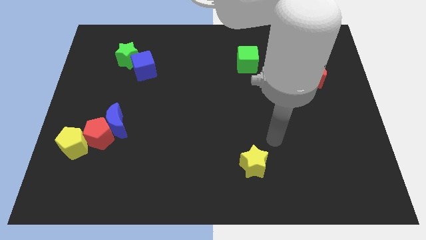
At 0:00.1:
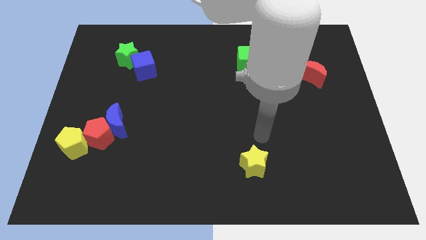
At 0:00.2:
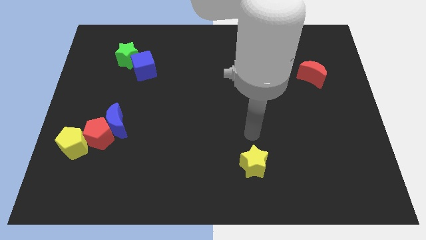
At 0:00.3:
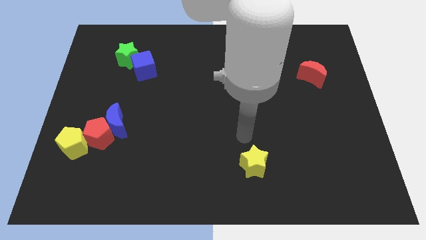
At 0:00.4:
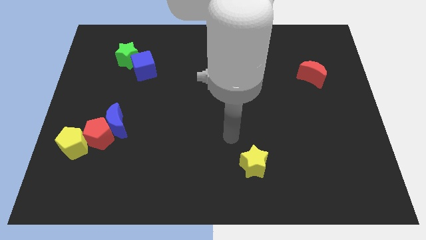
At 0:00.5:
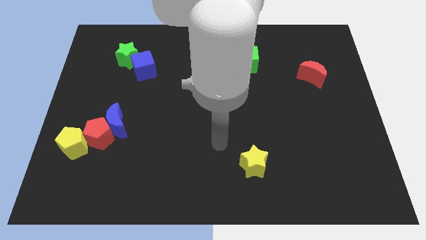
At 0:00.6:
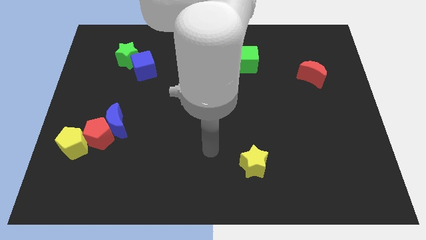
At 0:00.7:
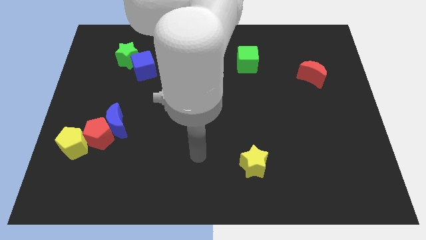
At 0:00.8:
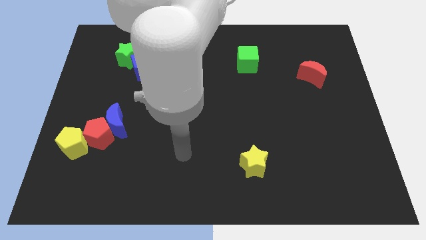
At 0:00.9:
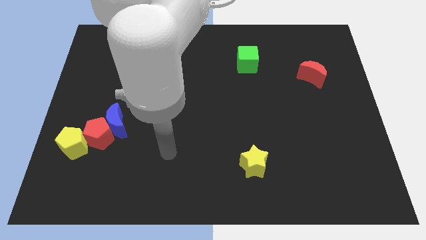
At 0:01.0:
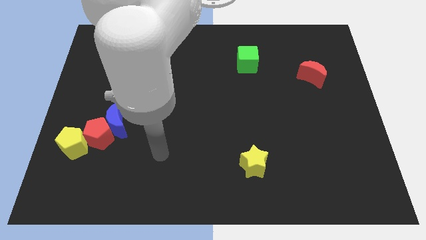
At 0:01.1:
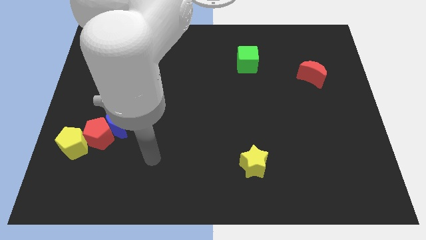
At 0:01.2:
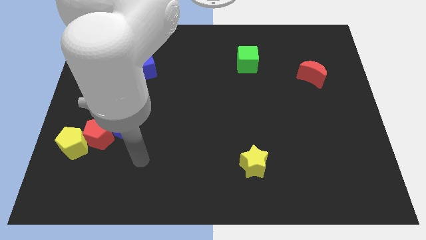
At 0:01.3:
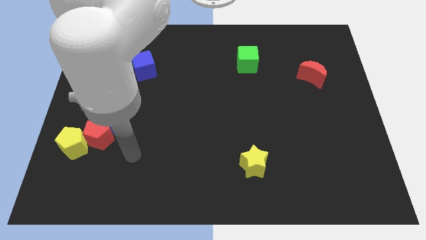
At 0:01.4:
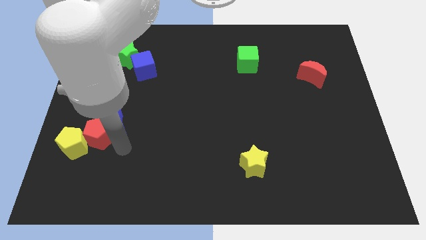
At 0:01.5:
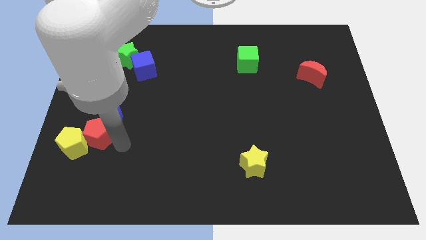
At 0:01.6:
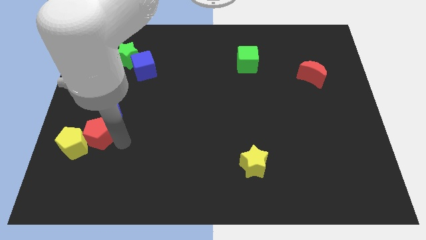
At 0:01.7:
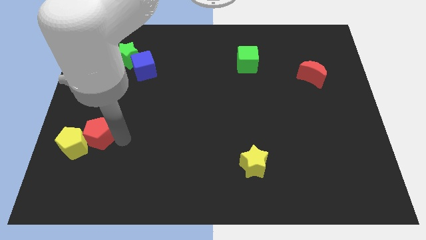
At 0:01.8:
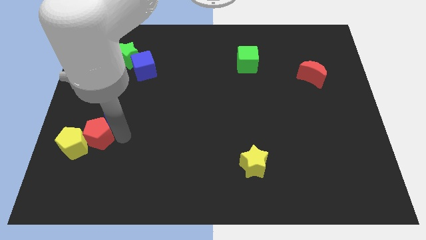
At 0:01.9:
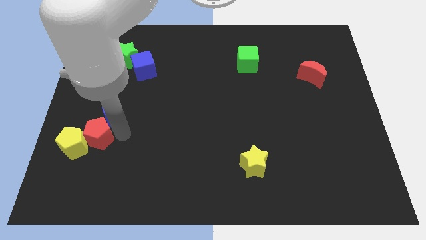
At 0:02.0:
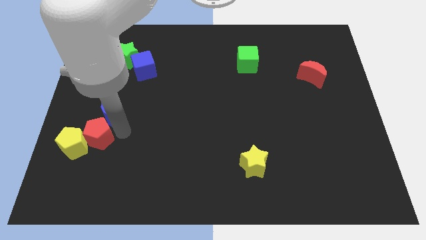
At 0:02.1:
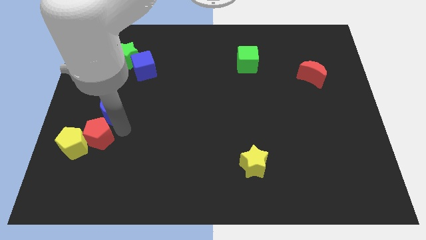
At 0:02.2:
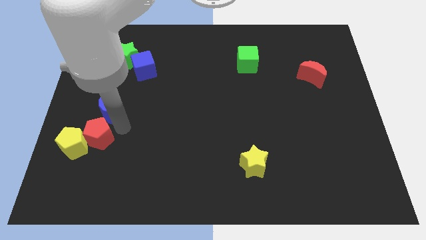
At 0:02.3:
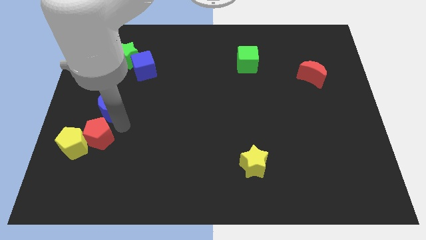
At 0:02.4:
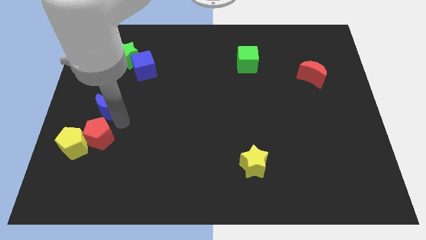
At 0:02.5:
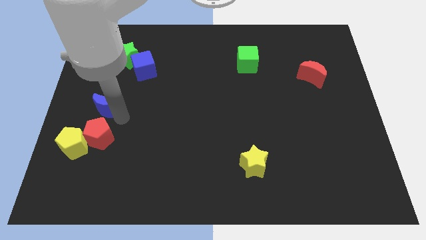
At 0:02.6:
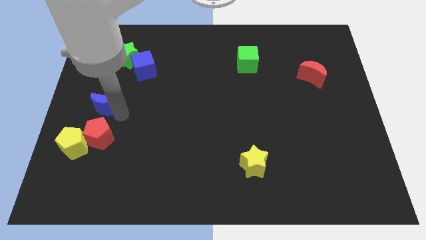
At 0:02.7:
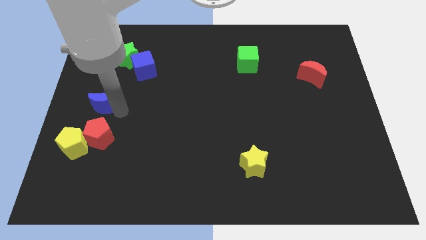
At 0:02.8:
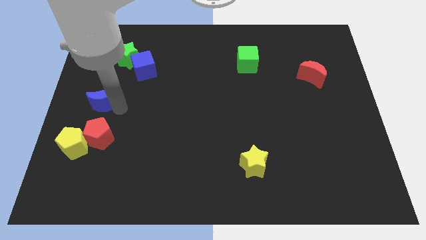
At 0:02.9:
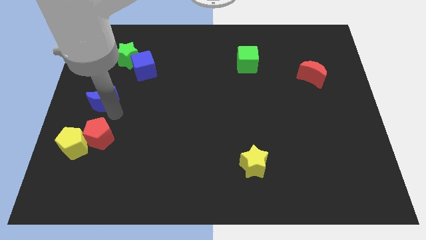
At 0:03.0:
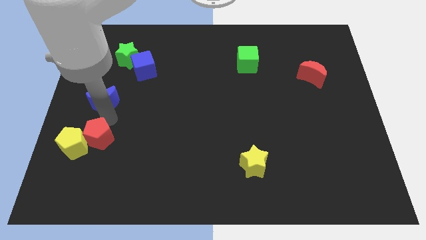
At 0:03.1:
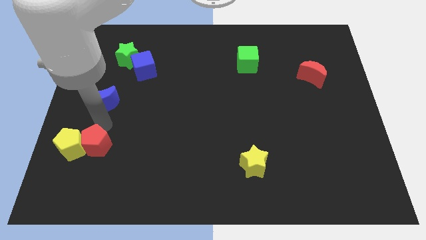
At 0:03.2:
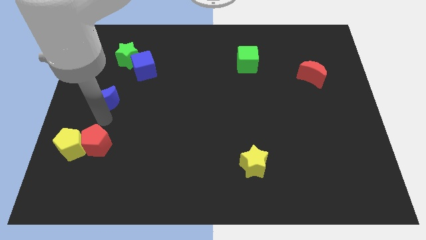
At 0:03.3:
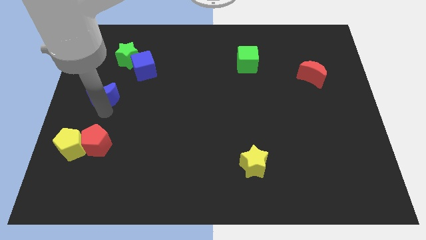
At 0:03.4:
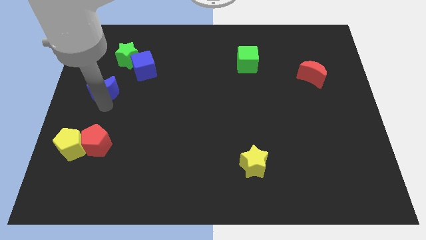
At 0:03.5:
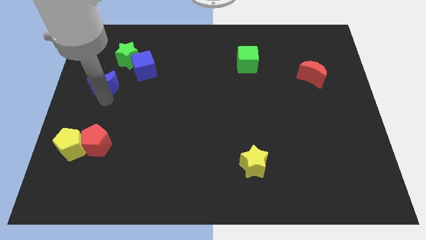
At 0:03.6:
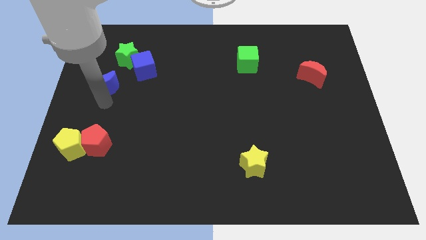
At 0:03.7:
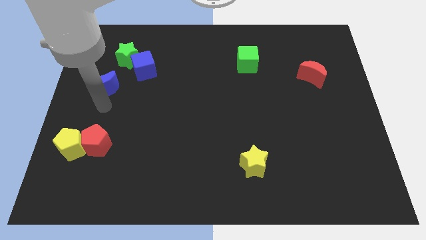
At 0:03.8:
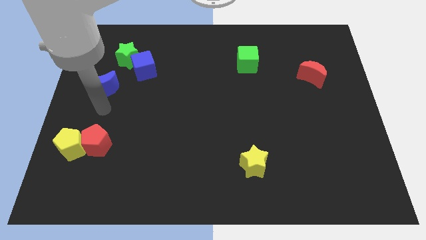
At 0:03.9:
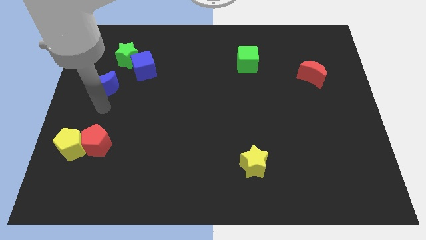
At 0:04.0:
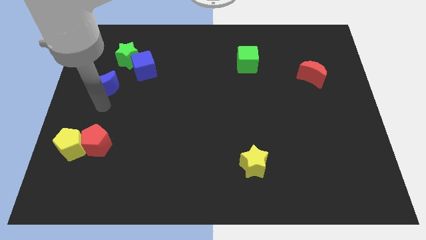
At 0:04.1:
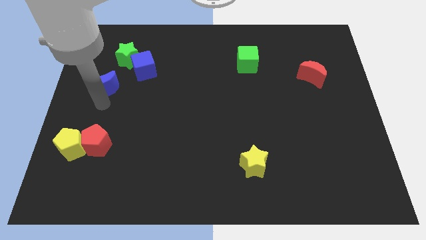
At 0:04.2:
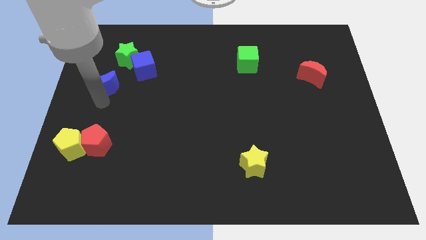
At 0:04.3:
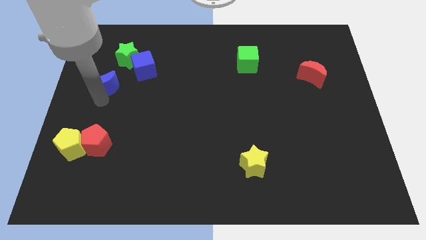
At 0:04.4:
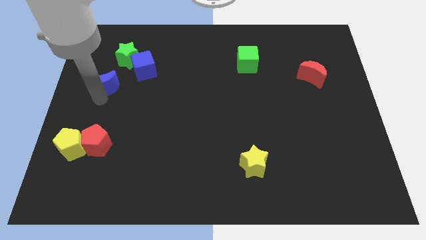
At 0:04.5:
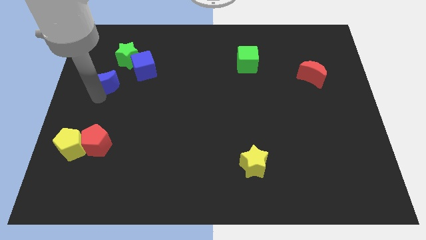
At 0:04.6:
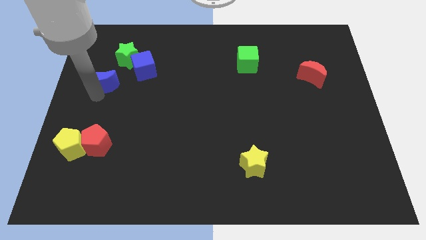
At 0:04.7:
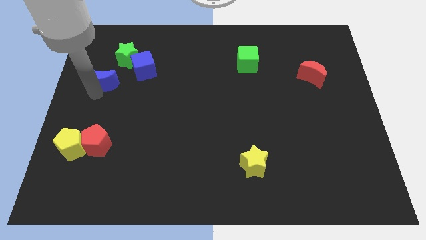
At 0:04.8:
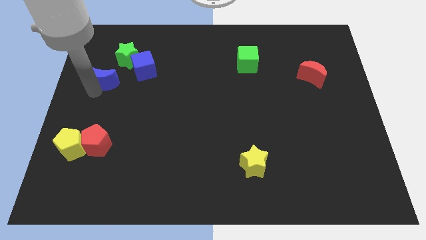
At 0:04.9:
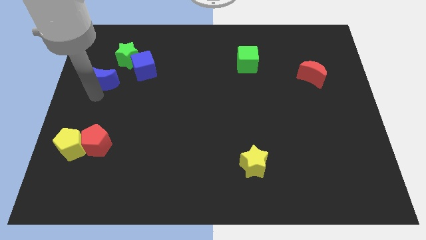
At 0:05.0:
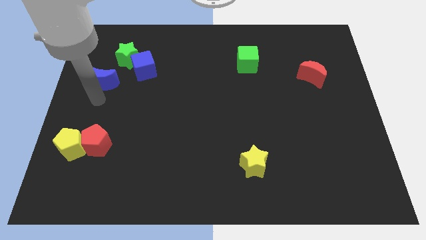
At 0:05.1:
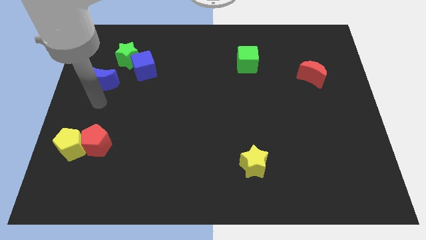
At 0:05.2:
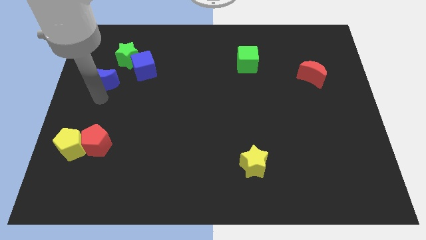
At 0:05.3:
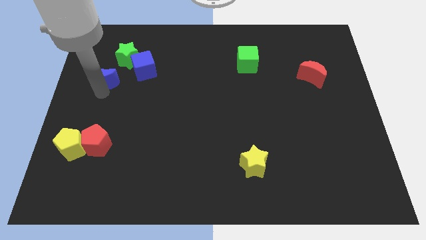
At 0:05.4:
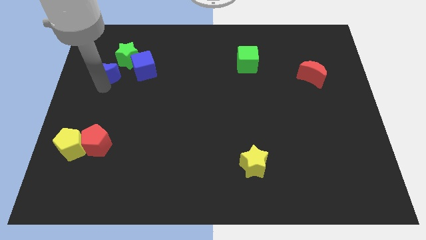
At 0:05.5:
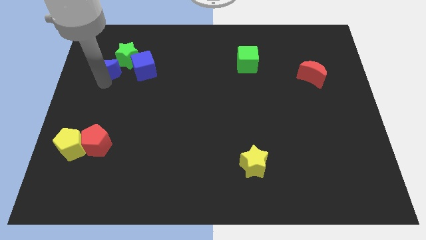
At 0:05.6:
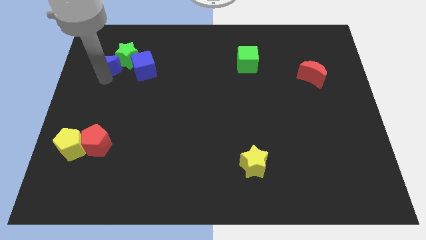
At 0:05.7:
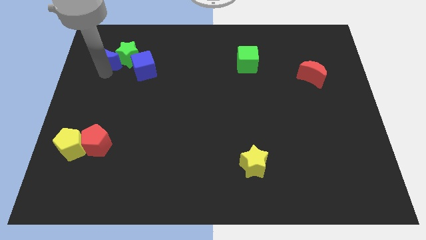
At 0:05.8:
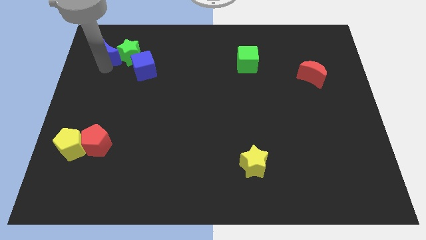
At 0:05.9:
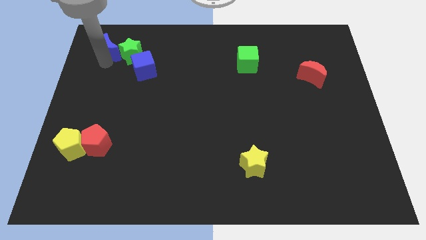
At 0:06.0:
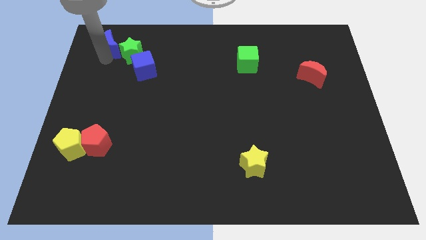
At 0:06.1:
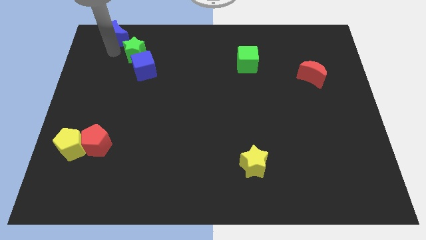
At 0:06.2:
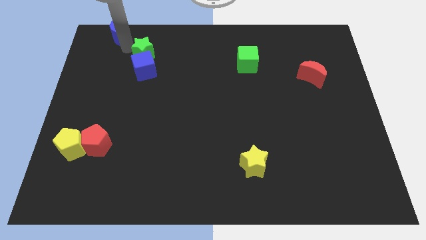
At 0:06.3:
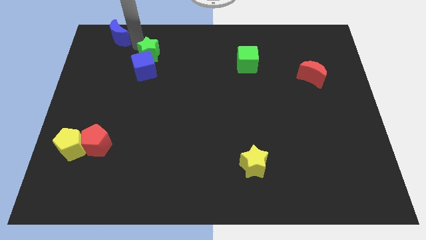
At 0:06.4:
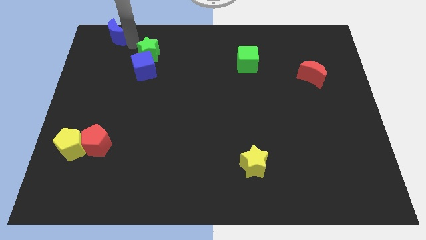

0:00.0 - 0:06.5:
push the blue moon to the upper left corner
